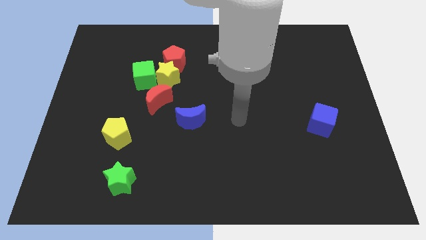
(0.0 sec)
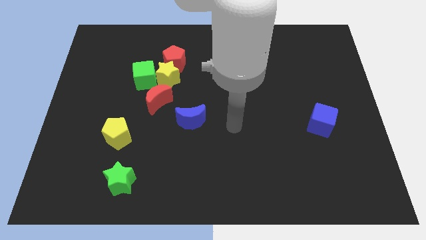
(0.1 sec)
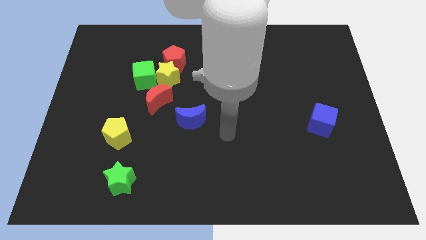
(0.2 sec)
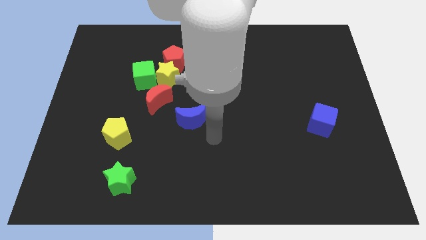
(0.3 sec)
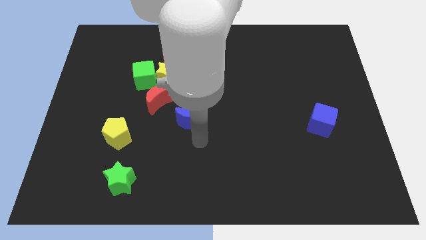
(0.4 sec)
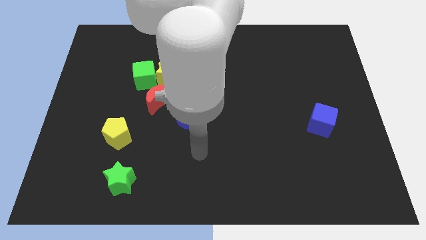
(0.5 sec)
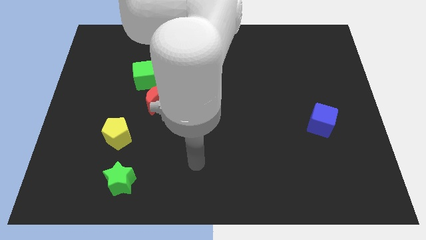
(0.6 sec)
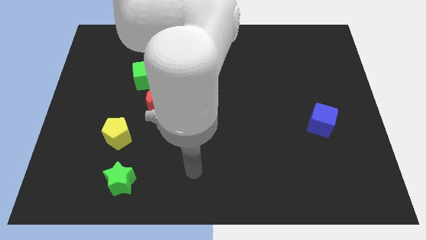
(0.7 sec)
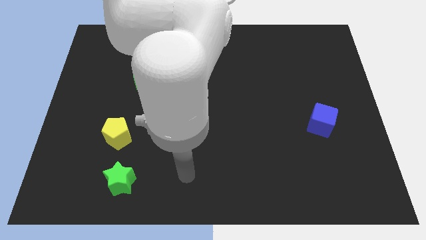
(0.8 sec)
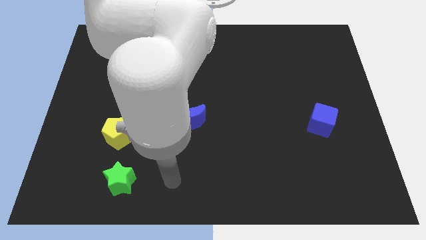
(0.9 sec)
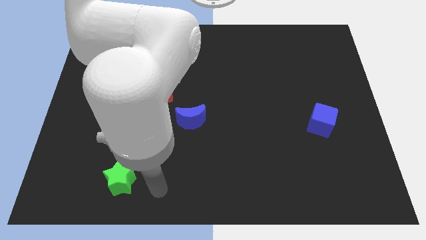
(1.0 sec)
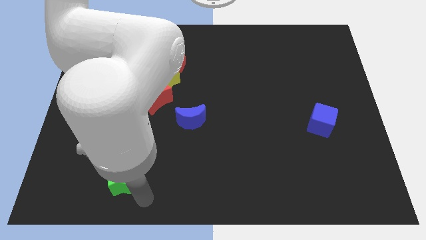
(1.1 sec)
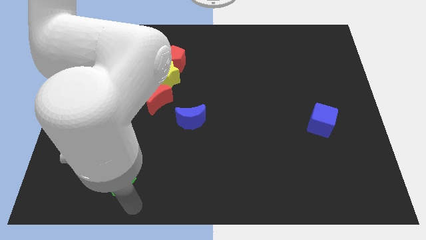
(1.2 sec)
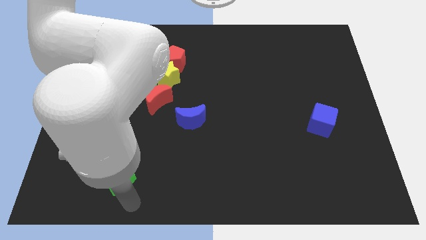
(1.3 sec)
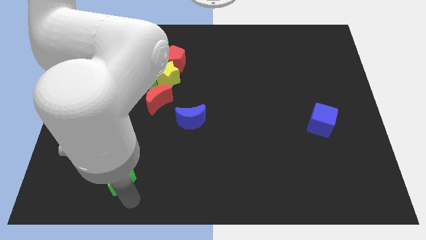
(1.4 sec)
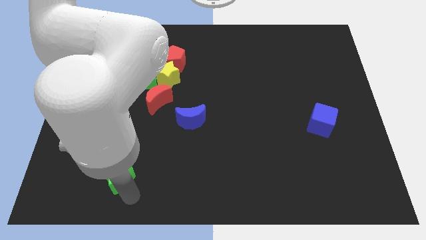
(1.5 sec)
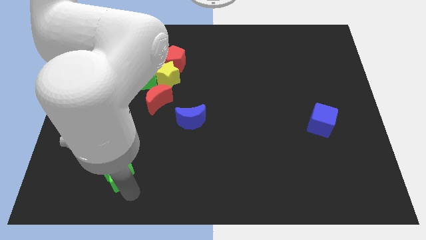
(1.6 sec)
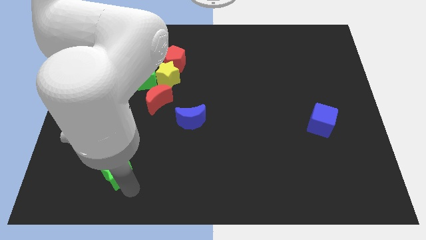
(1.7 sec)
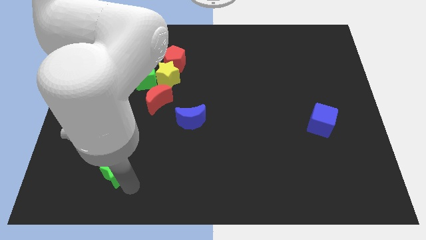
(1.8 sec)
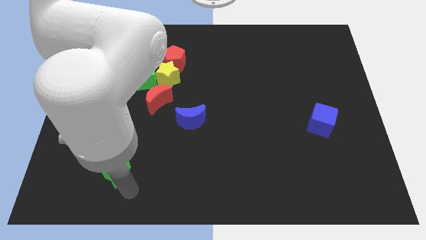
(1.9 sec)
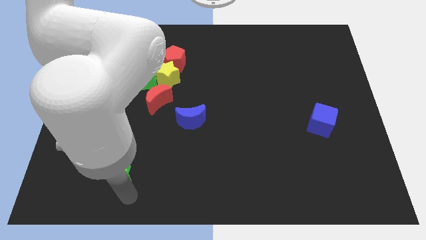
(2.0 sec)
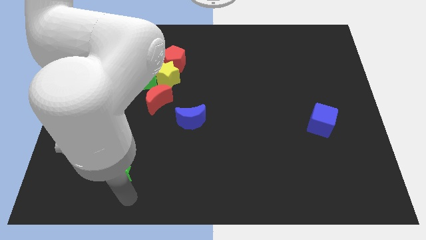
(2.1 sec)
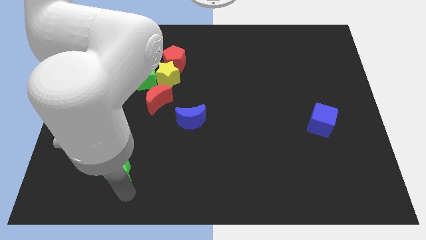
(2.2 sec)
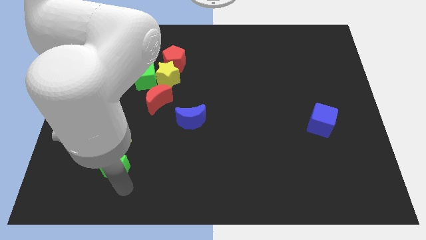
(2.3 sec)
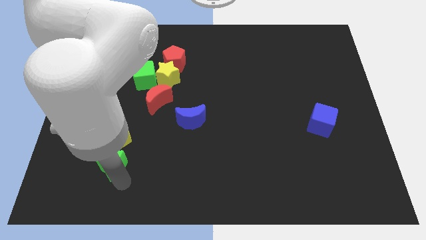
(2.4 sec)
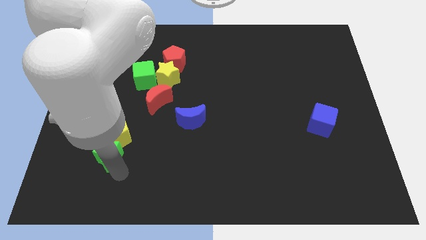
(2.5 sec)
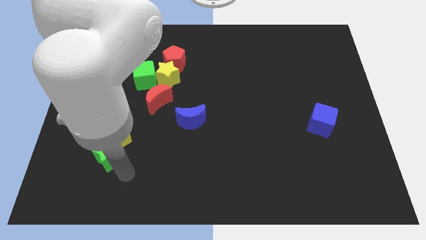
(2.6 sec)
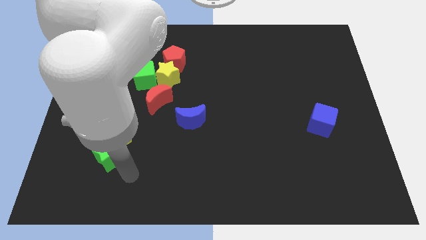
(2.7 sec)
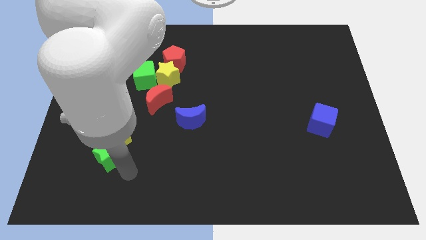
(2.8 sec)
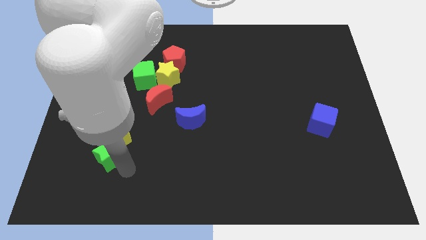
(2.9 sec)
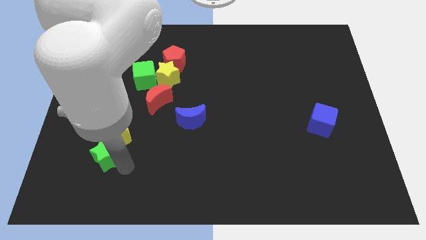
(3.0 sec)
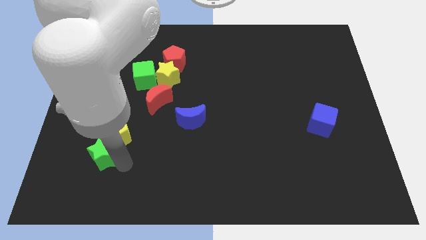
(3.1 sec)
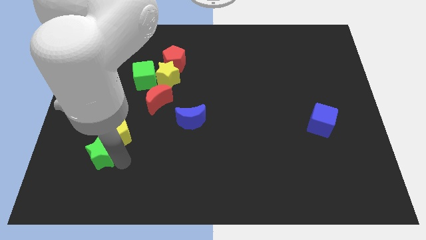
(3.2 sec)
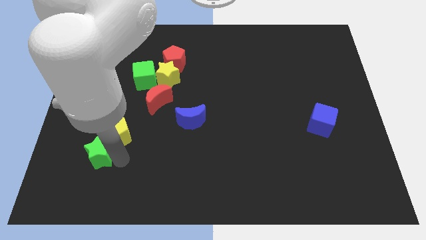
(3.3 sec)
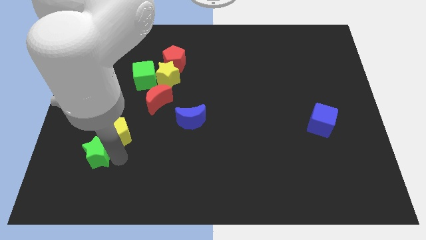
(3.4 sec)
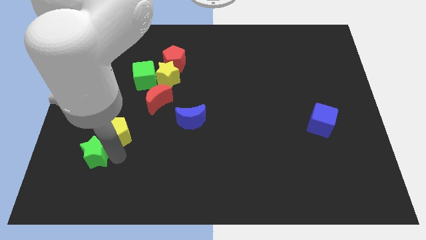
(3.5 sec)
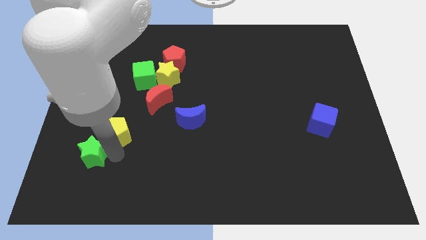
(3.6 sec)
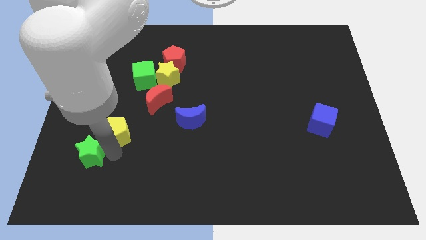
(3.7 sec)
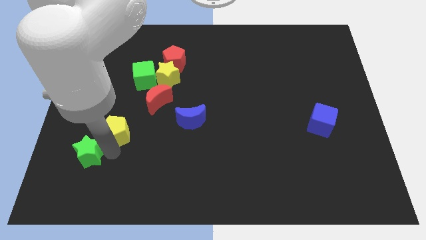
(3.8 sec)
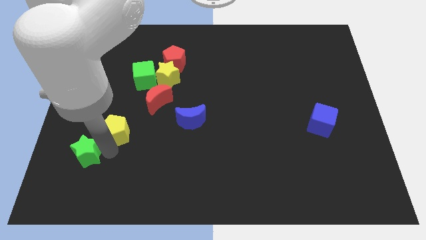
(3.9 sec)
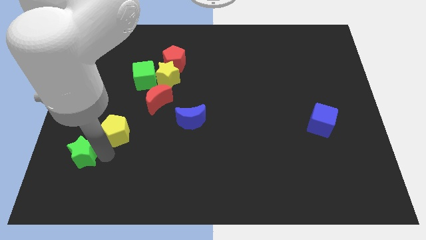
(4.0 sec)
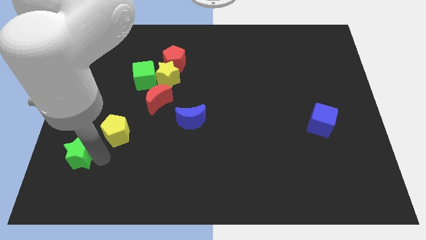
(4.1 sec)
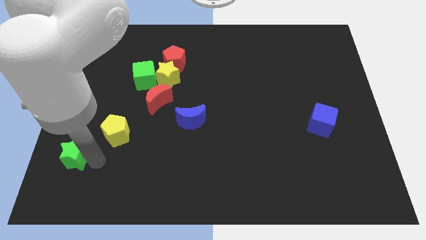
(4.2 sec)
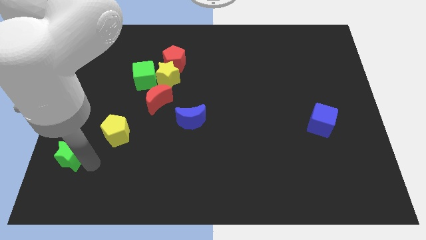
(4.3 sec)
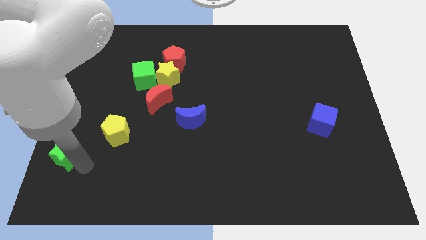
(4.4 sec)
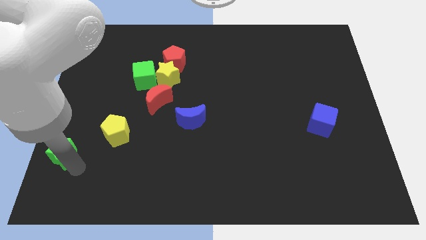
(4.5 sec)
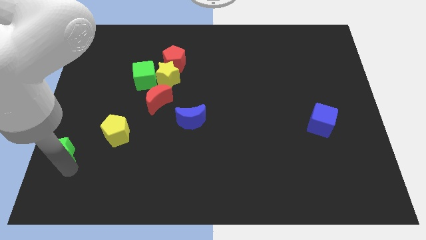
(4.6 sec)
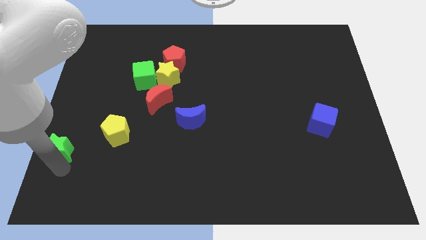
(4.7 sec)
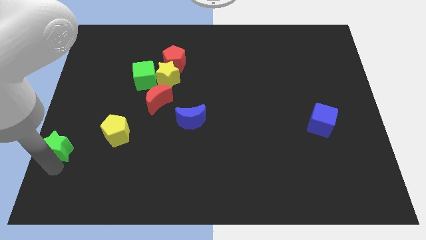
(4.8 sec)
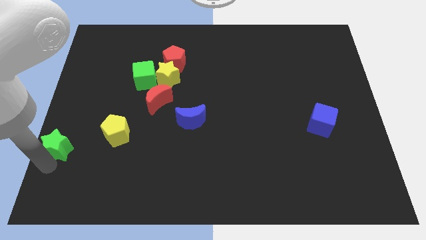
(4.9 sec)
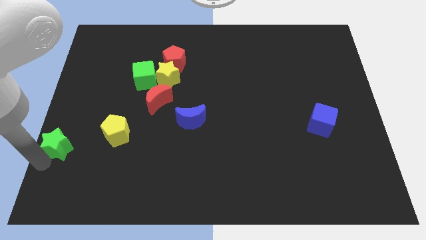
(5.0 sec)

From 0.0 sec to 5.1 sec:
move the green star to the left side
